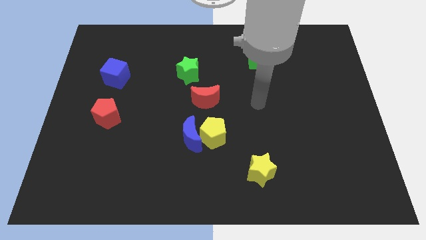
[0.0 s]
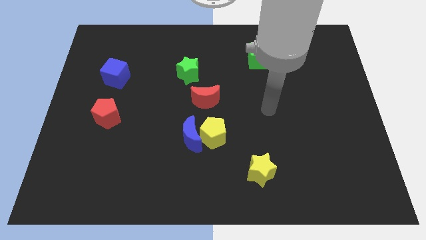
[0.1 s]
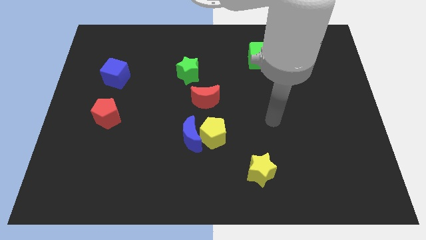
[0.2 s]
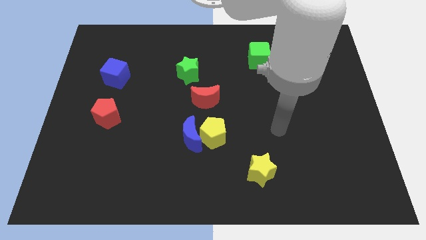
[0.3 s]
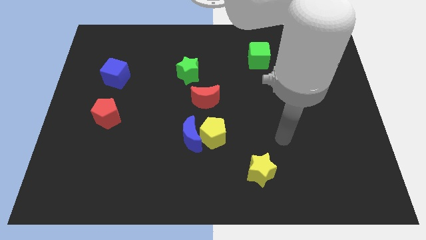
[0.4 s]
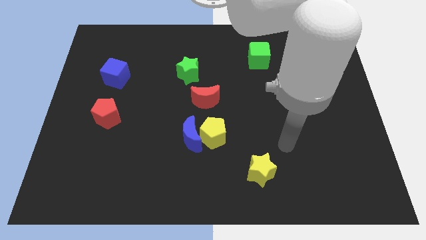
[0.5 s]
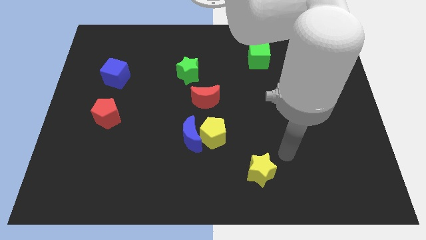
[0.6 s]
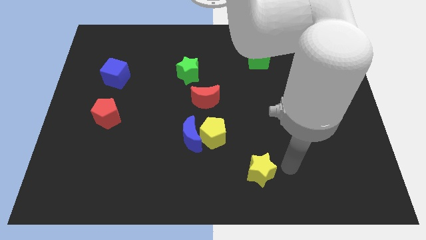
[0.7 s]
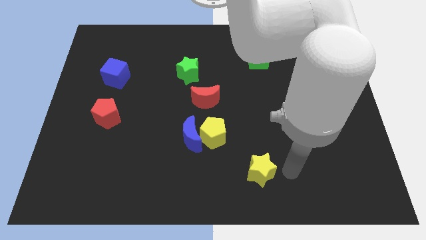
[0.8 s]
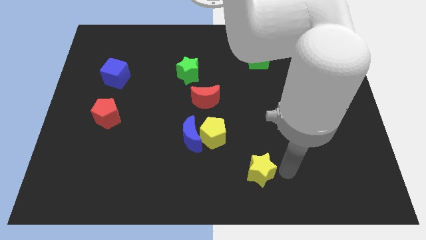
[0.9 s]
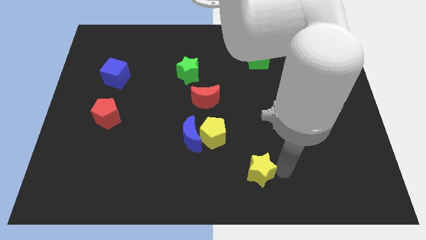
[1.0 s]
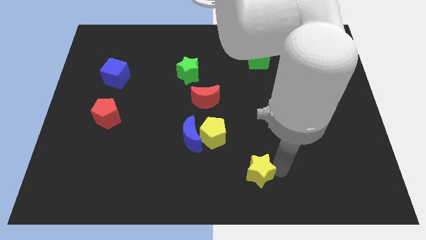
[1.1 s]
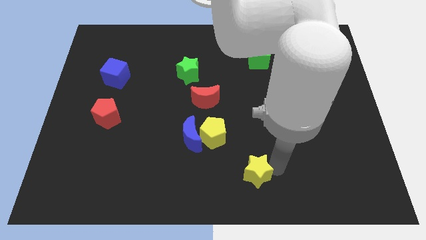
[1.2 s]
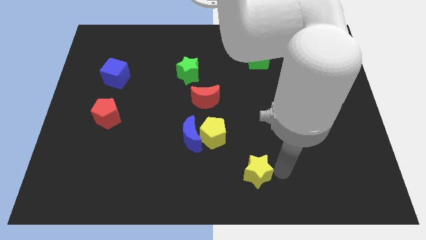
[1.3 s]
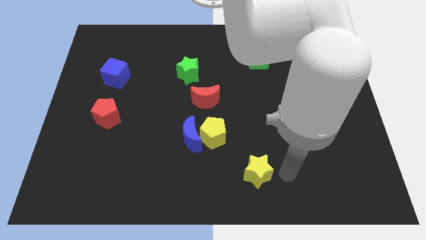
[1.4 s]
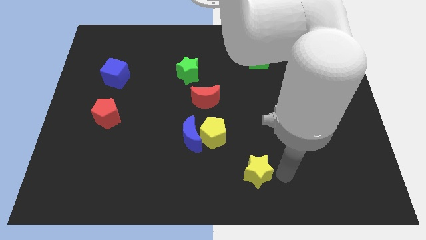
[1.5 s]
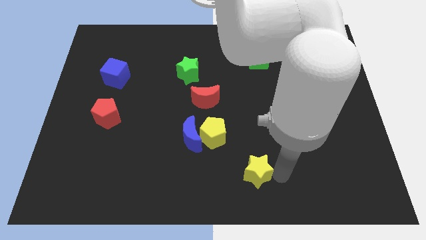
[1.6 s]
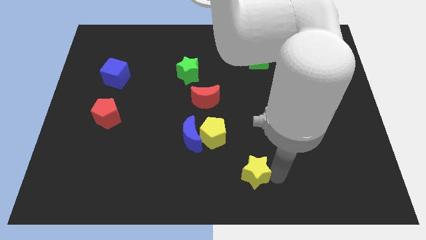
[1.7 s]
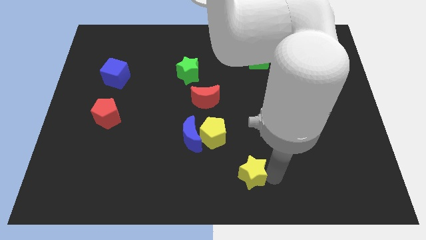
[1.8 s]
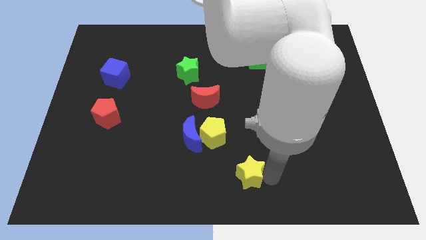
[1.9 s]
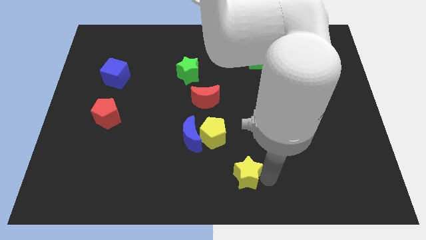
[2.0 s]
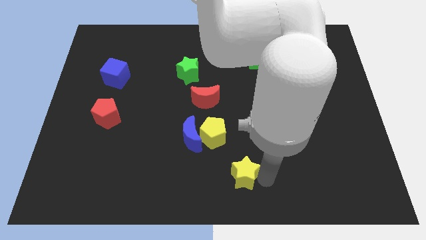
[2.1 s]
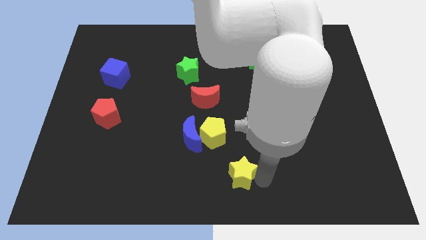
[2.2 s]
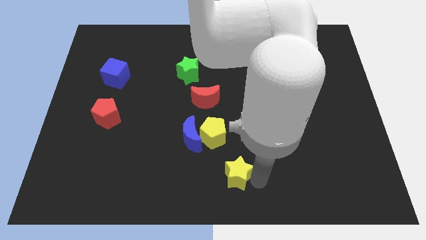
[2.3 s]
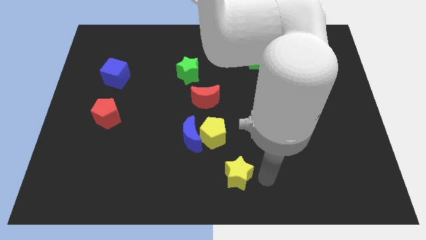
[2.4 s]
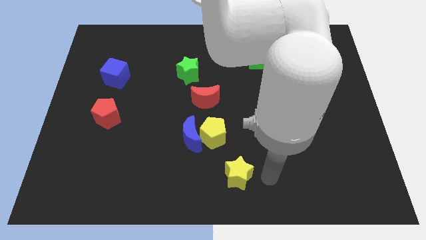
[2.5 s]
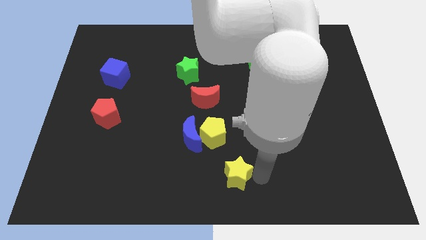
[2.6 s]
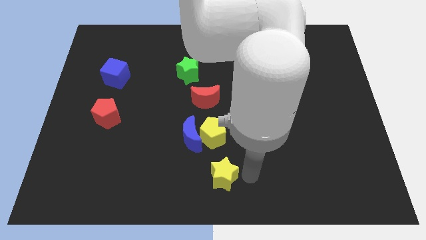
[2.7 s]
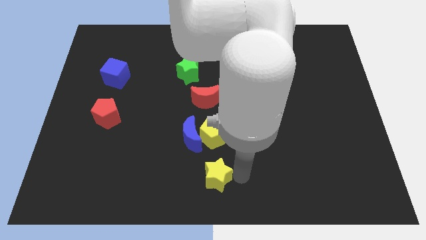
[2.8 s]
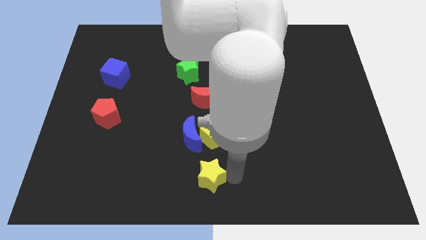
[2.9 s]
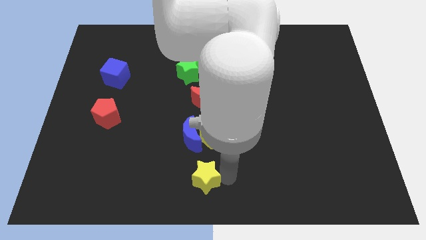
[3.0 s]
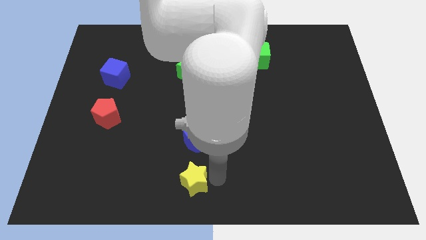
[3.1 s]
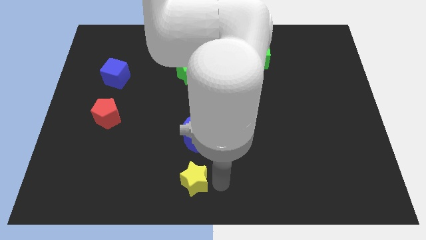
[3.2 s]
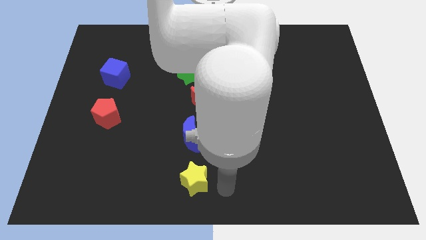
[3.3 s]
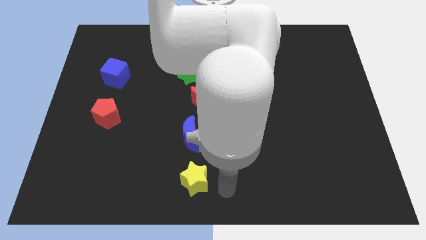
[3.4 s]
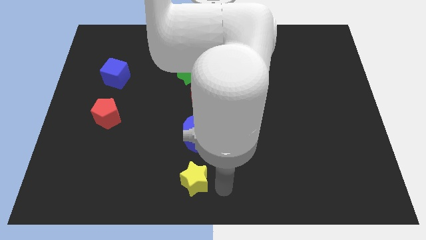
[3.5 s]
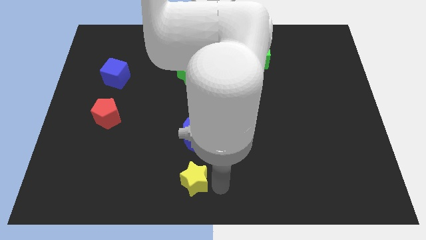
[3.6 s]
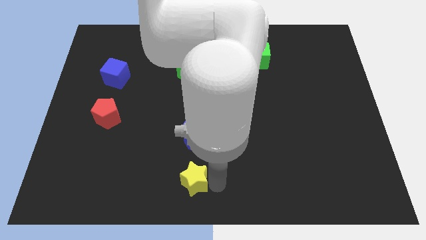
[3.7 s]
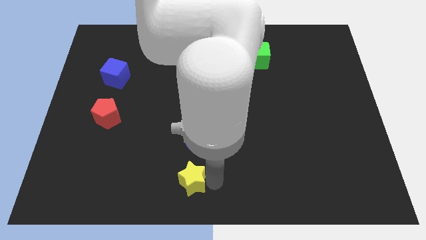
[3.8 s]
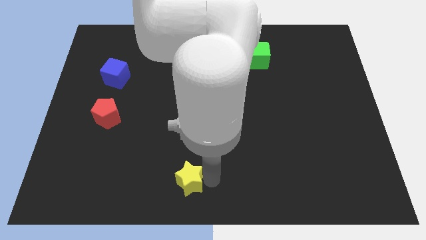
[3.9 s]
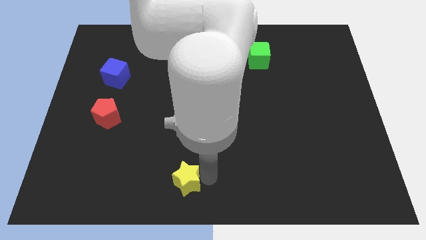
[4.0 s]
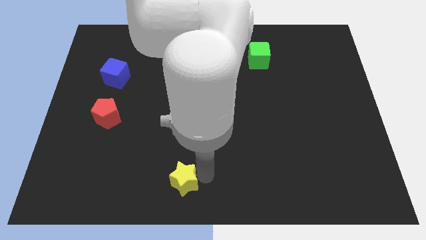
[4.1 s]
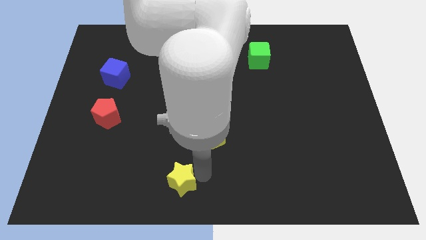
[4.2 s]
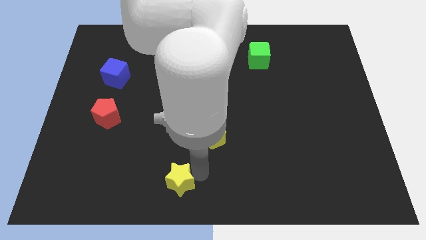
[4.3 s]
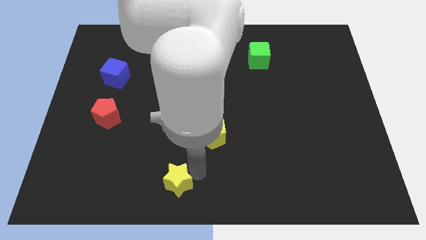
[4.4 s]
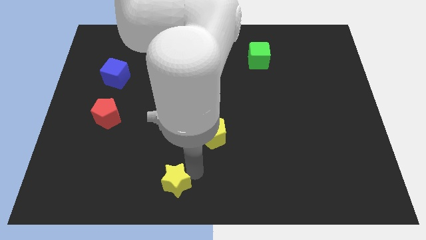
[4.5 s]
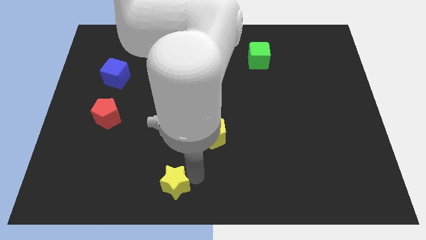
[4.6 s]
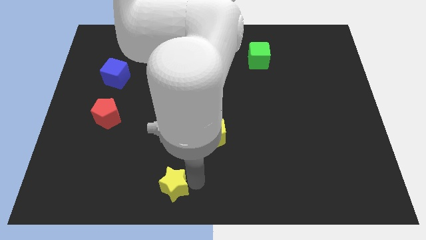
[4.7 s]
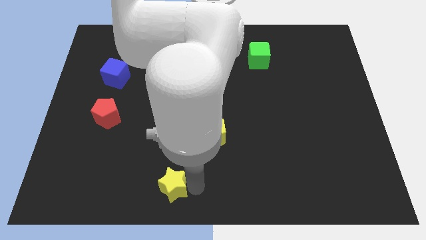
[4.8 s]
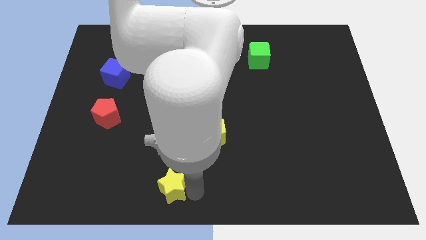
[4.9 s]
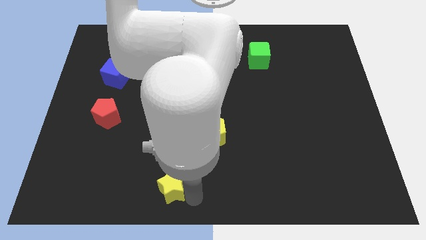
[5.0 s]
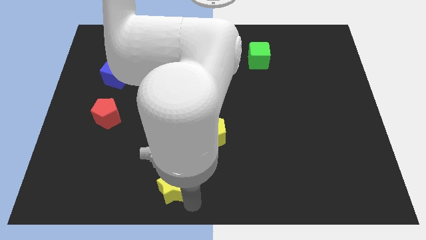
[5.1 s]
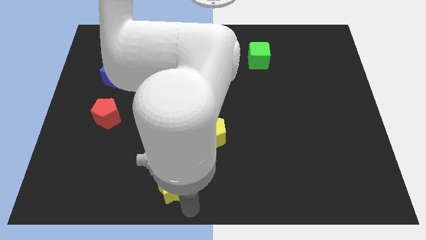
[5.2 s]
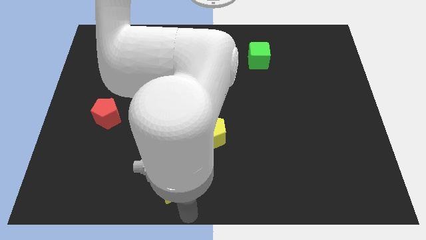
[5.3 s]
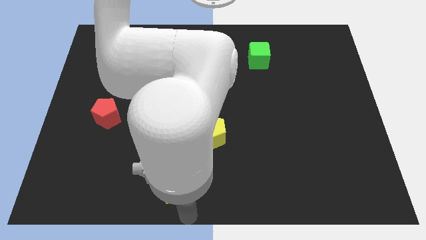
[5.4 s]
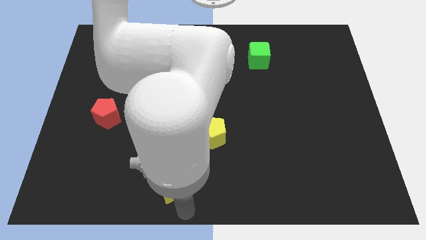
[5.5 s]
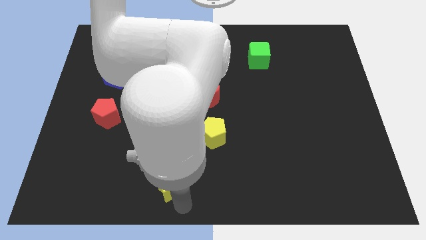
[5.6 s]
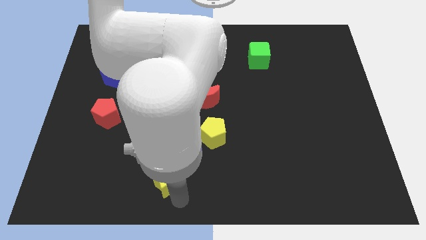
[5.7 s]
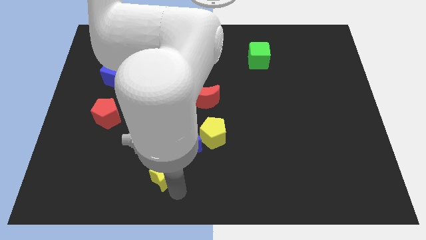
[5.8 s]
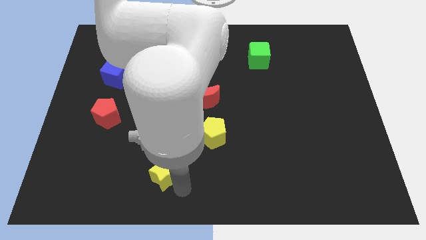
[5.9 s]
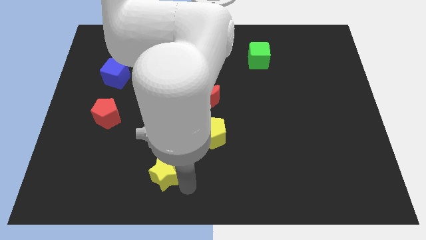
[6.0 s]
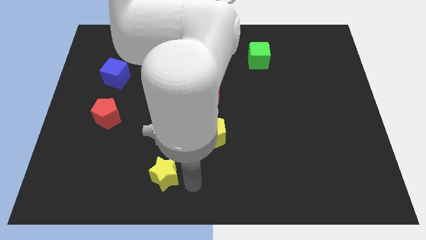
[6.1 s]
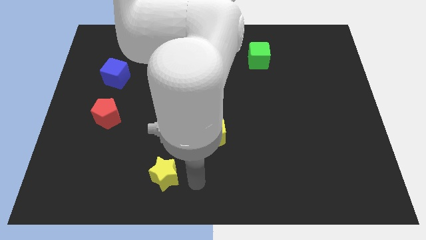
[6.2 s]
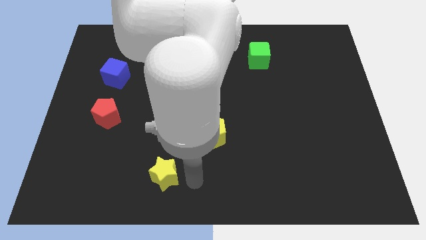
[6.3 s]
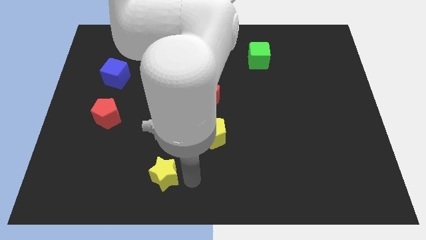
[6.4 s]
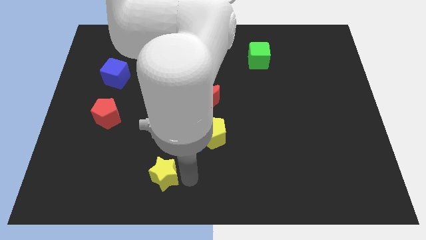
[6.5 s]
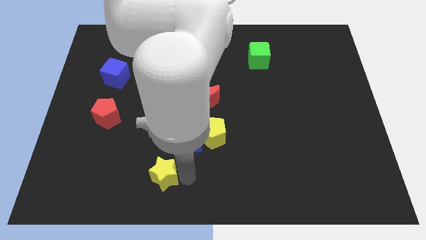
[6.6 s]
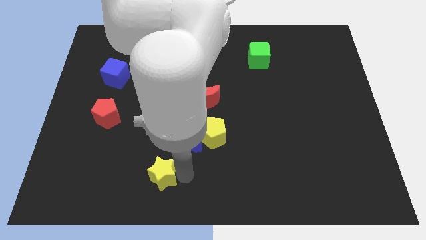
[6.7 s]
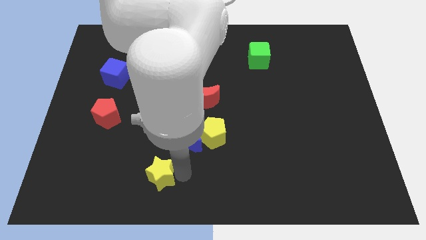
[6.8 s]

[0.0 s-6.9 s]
move the yellow star to the left

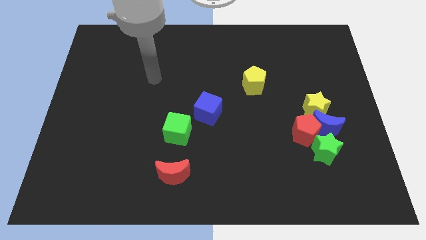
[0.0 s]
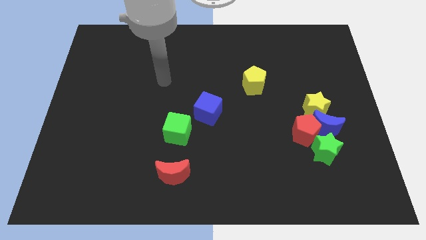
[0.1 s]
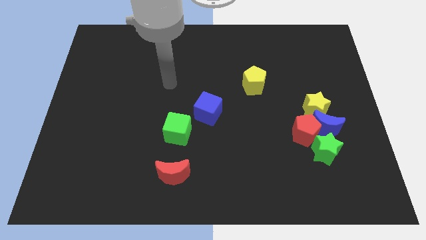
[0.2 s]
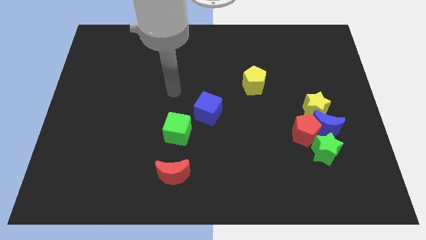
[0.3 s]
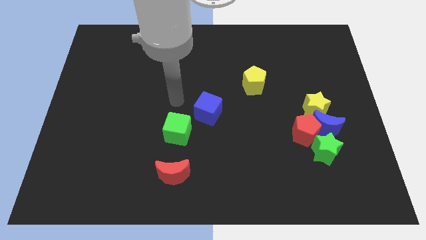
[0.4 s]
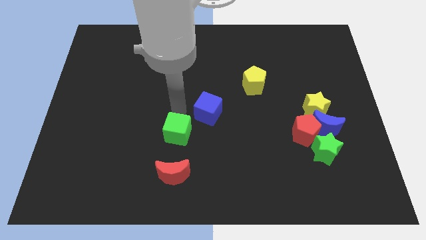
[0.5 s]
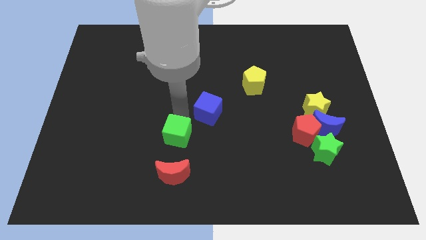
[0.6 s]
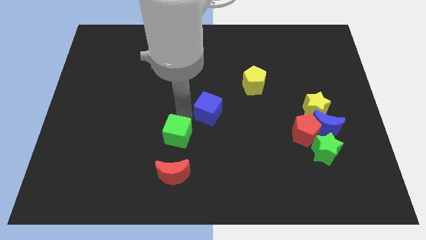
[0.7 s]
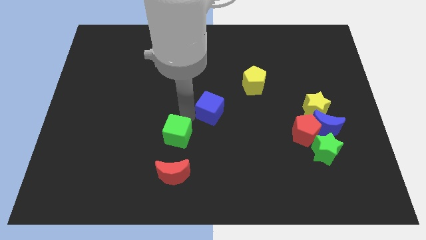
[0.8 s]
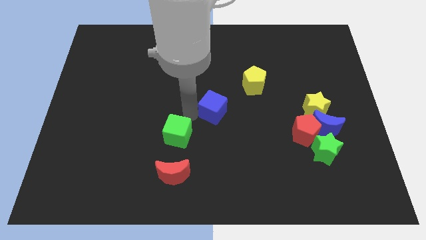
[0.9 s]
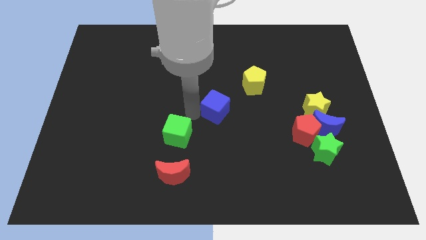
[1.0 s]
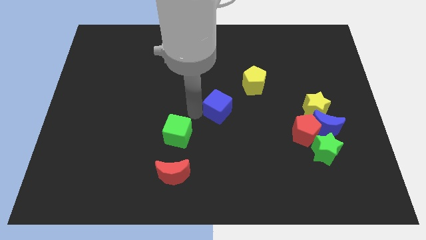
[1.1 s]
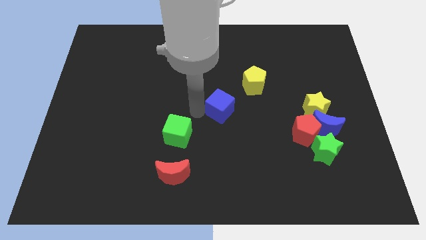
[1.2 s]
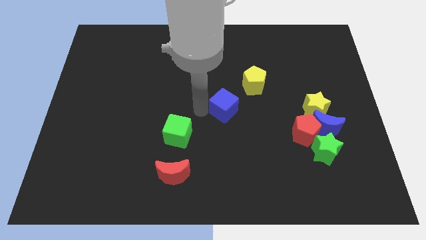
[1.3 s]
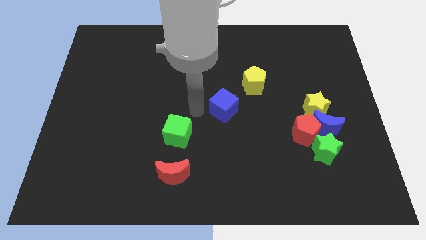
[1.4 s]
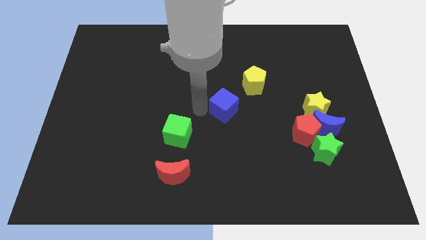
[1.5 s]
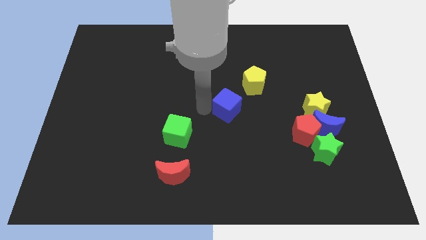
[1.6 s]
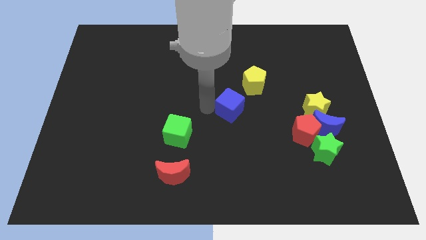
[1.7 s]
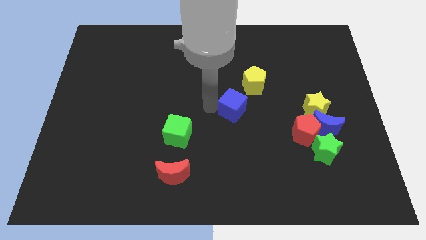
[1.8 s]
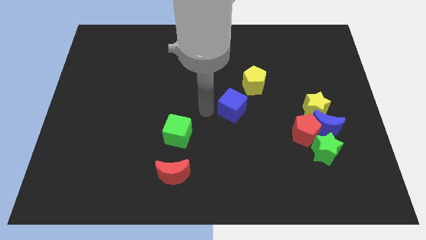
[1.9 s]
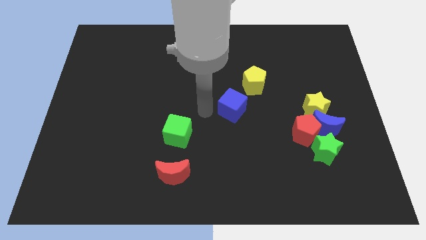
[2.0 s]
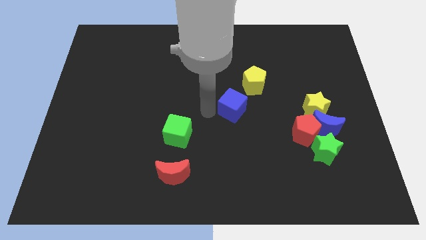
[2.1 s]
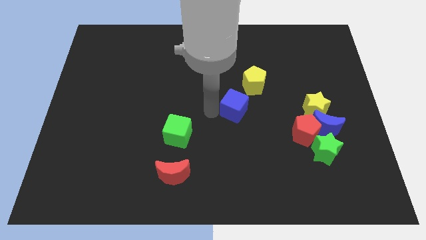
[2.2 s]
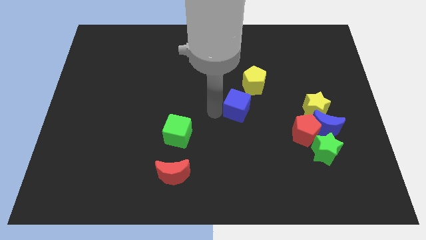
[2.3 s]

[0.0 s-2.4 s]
slide the blue cube right a little bit
